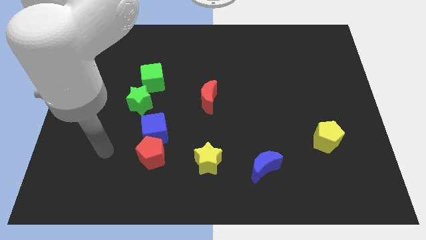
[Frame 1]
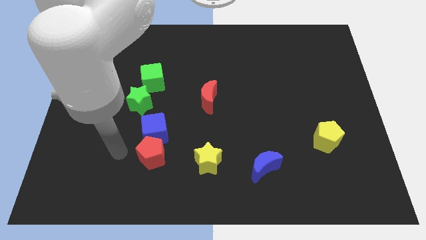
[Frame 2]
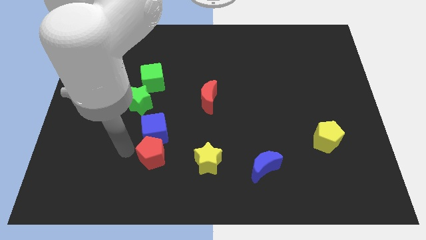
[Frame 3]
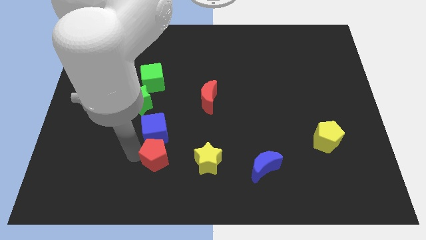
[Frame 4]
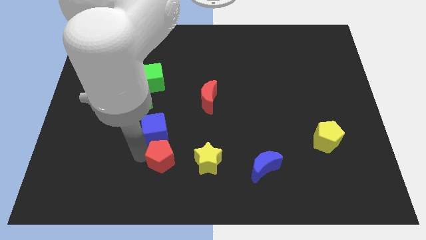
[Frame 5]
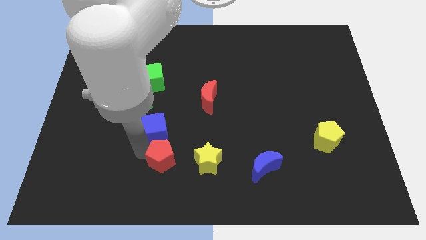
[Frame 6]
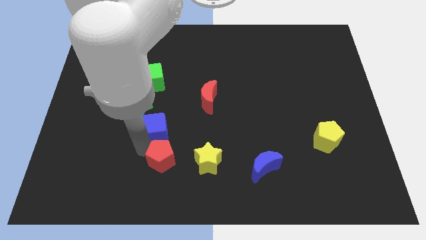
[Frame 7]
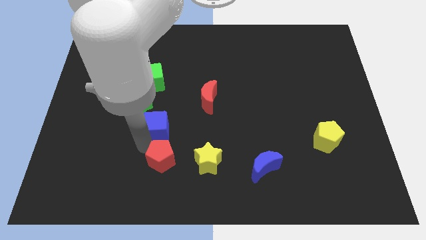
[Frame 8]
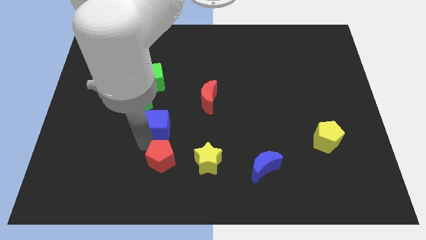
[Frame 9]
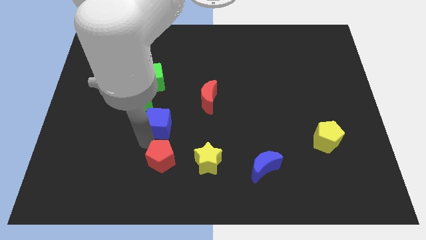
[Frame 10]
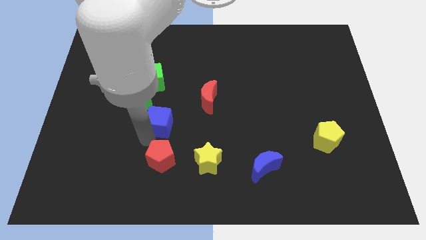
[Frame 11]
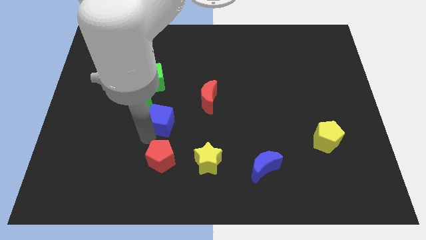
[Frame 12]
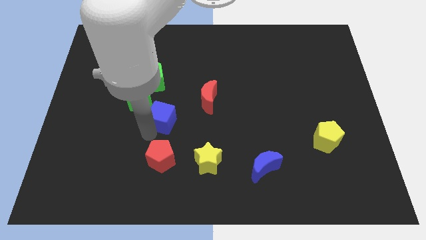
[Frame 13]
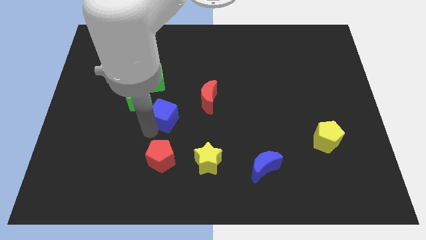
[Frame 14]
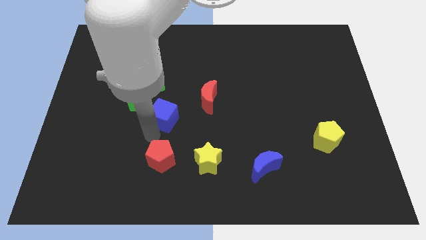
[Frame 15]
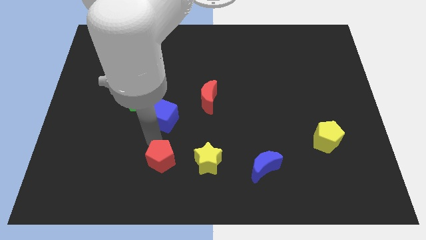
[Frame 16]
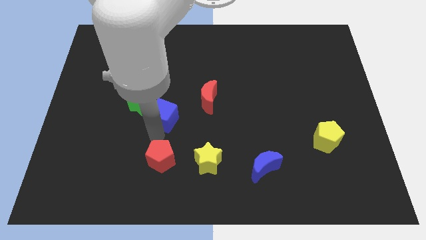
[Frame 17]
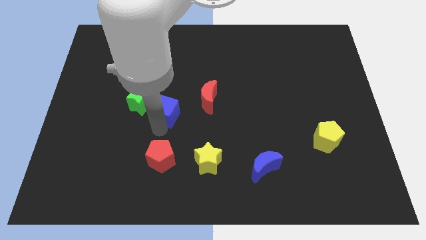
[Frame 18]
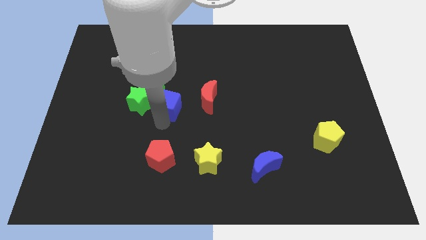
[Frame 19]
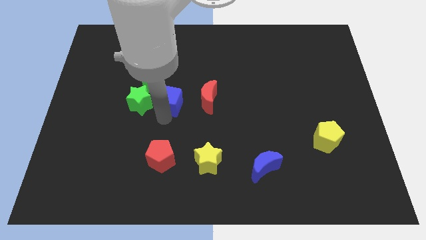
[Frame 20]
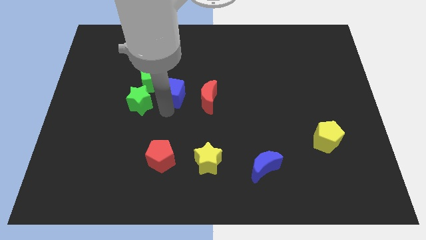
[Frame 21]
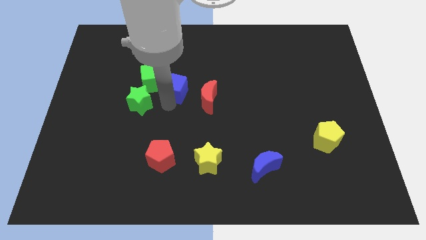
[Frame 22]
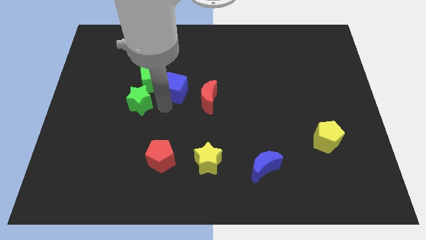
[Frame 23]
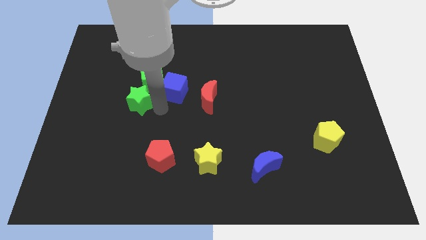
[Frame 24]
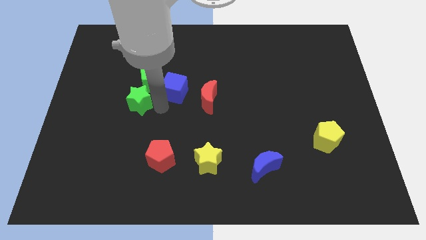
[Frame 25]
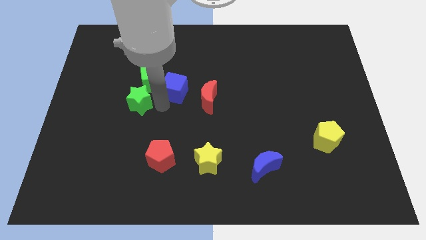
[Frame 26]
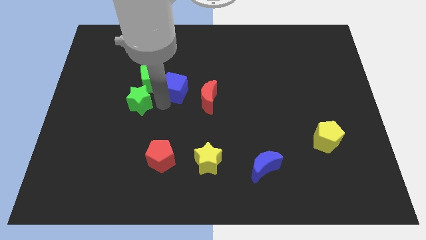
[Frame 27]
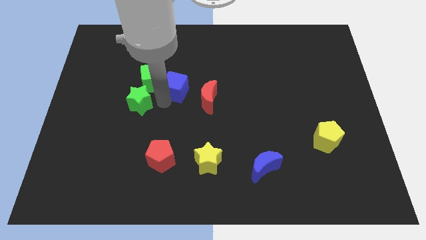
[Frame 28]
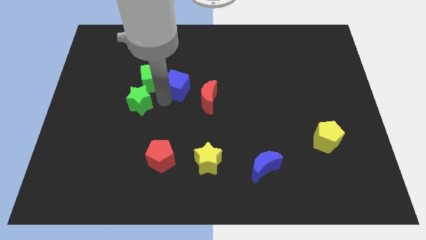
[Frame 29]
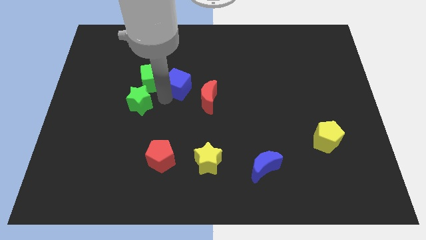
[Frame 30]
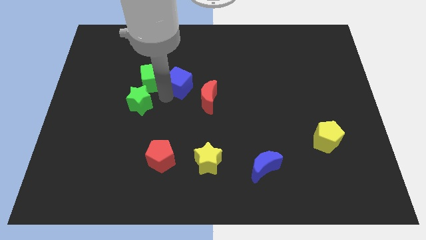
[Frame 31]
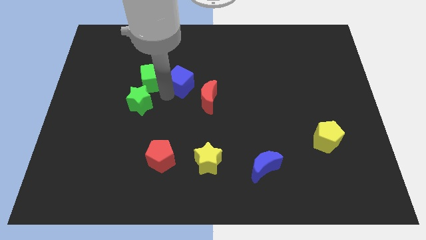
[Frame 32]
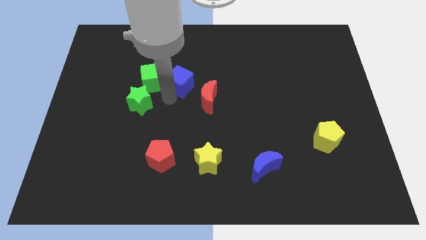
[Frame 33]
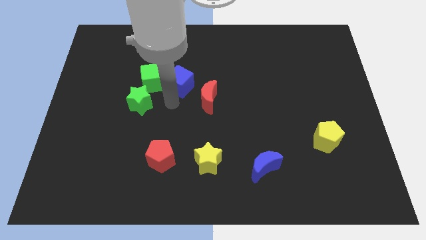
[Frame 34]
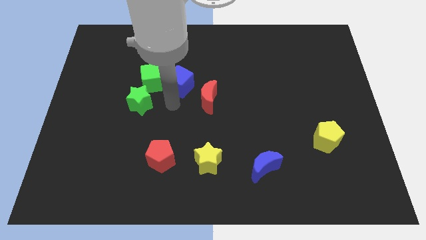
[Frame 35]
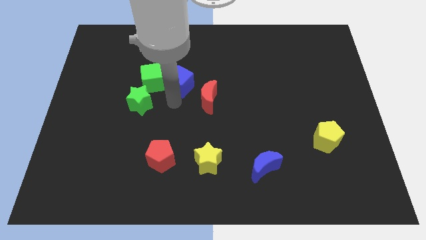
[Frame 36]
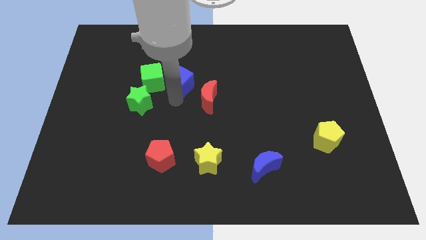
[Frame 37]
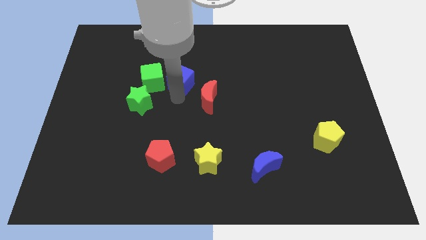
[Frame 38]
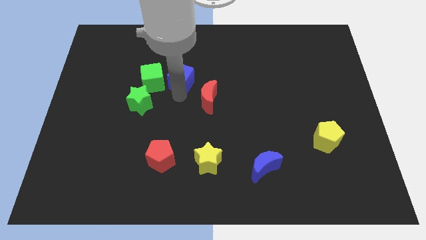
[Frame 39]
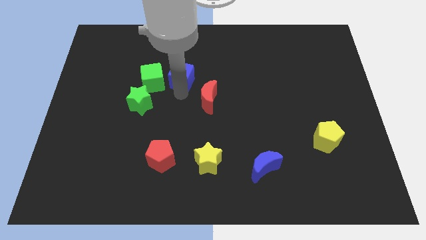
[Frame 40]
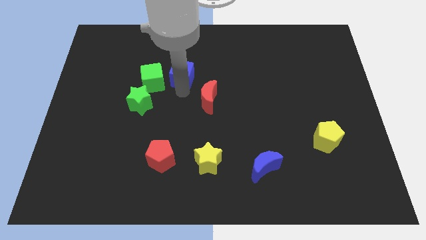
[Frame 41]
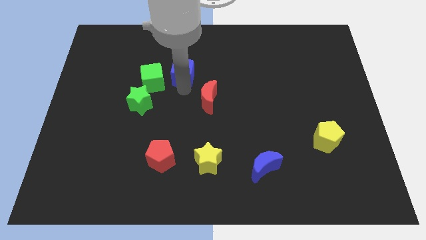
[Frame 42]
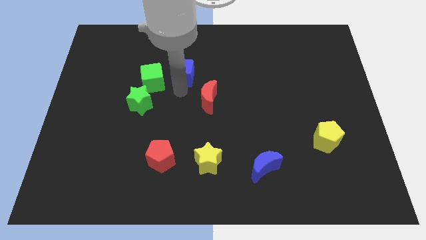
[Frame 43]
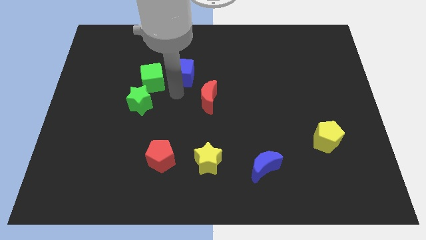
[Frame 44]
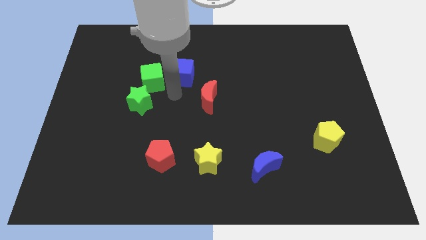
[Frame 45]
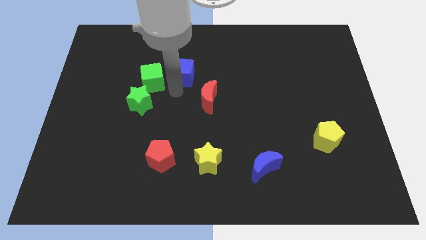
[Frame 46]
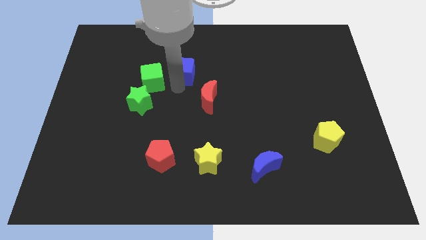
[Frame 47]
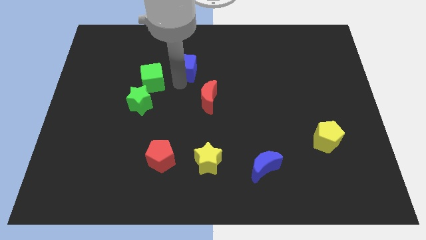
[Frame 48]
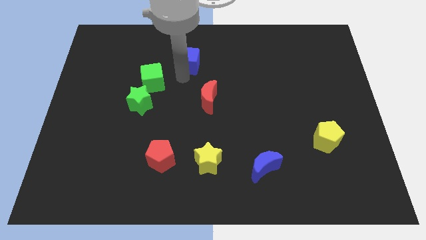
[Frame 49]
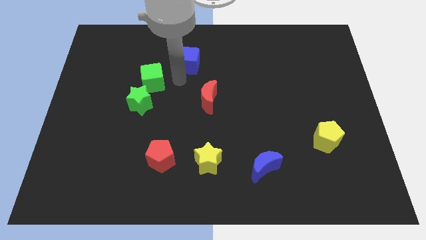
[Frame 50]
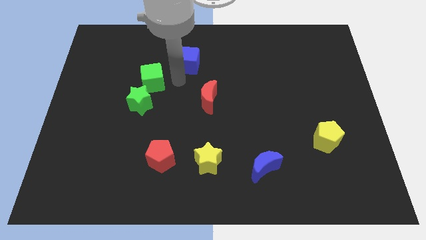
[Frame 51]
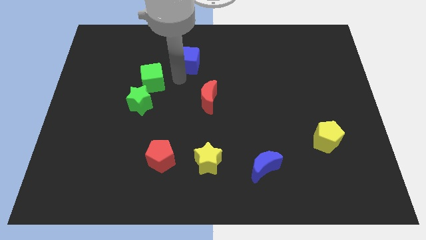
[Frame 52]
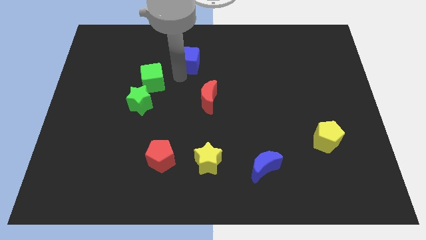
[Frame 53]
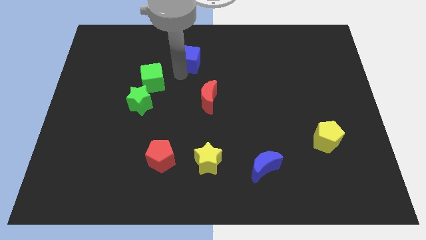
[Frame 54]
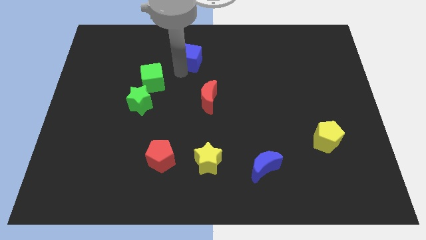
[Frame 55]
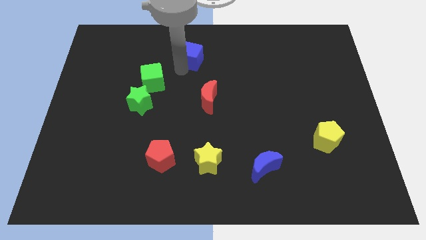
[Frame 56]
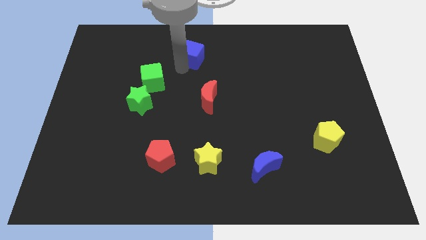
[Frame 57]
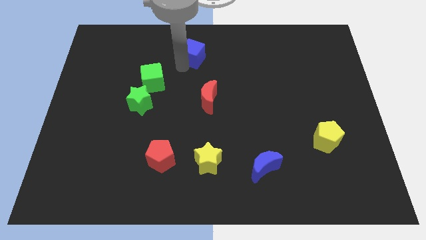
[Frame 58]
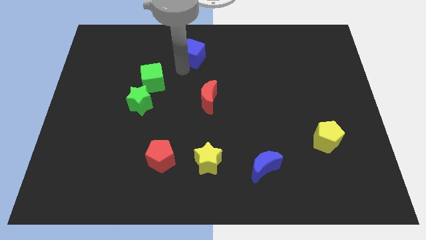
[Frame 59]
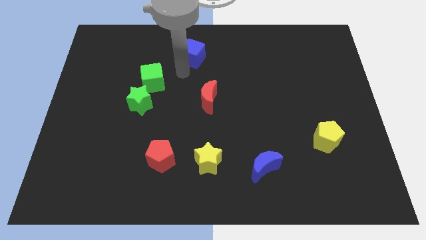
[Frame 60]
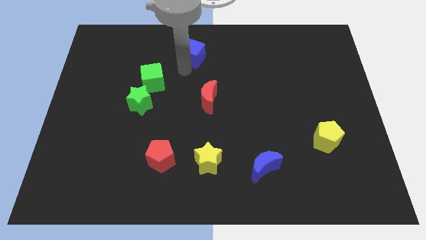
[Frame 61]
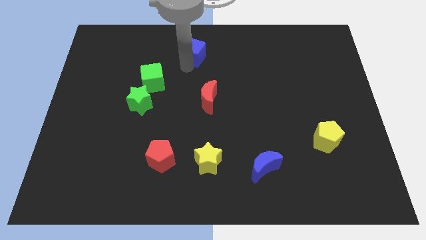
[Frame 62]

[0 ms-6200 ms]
move the blue cube to the top side
